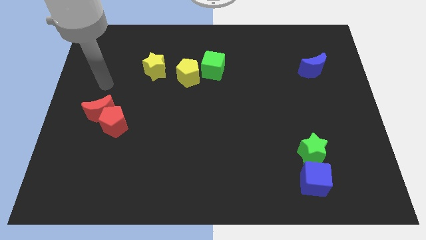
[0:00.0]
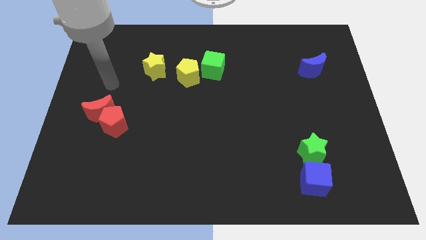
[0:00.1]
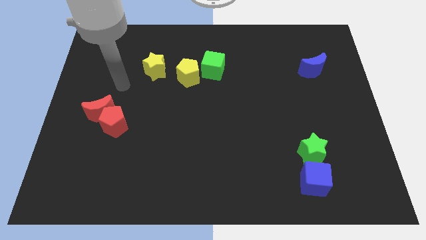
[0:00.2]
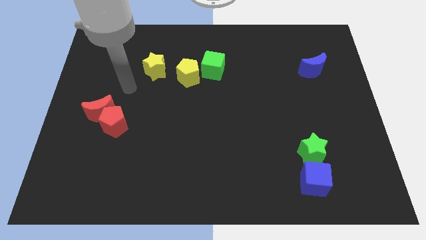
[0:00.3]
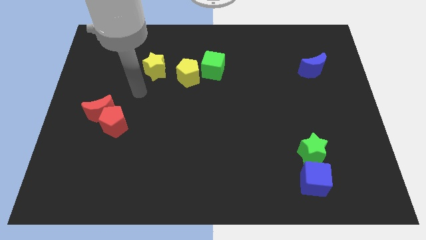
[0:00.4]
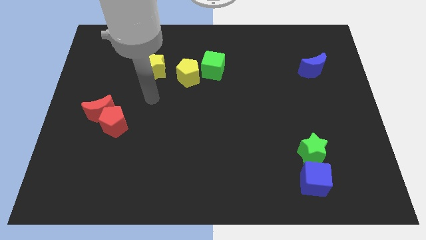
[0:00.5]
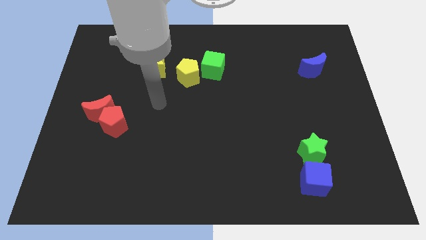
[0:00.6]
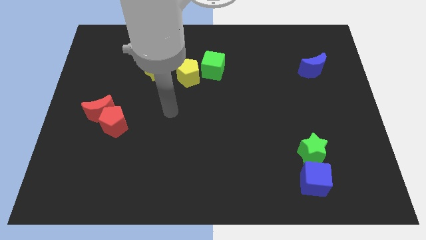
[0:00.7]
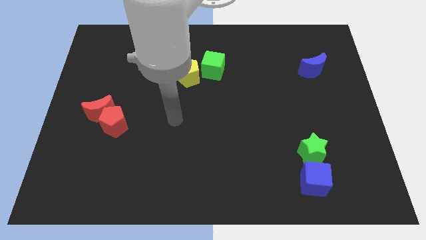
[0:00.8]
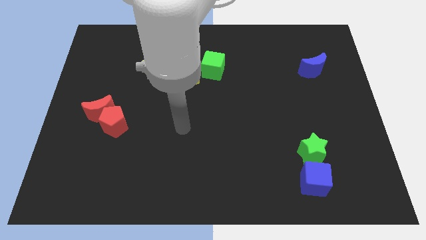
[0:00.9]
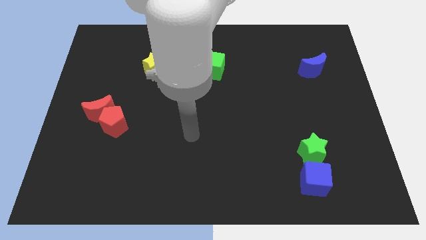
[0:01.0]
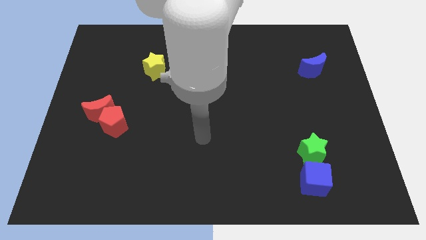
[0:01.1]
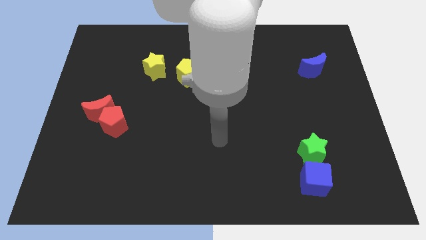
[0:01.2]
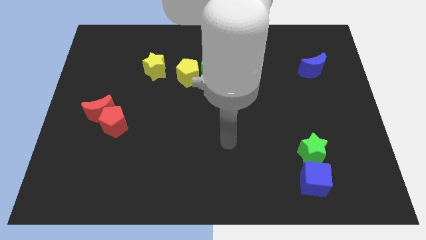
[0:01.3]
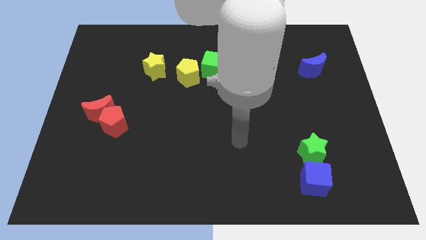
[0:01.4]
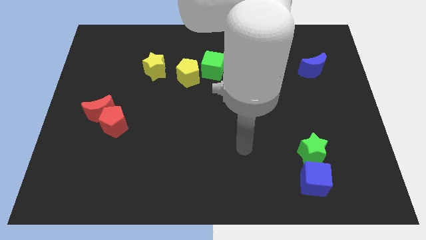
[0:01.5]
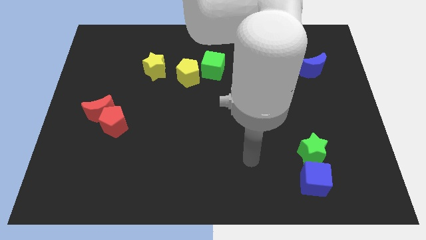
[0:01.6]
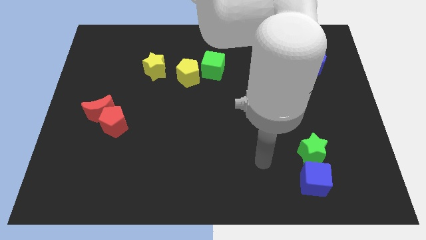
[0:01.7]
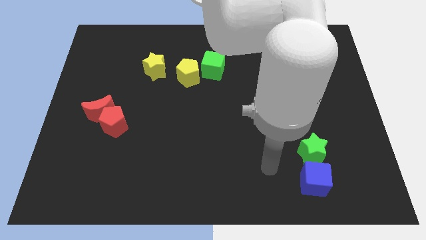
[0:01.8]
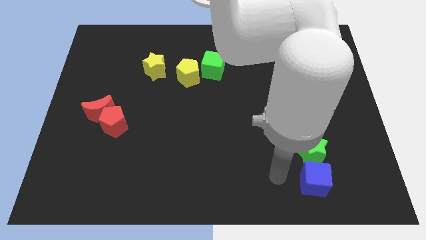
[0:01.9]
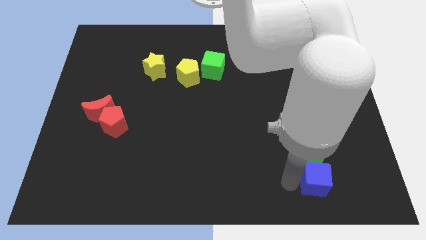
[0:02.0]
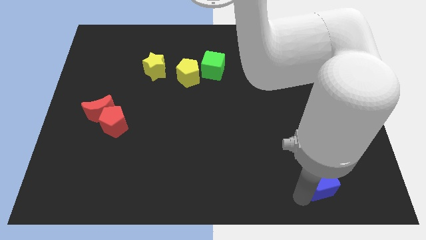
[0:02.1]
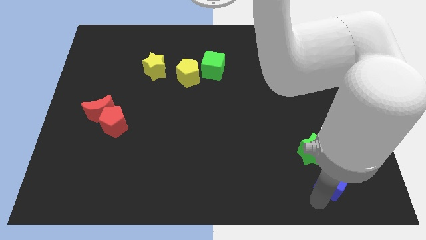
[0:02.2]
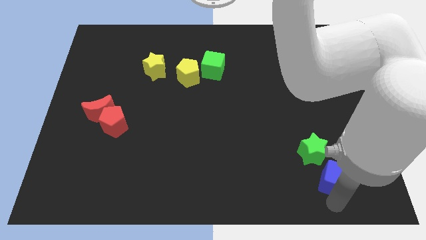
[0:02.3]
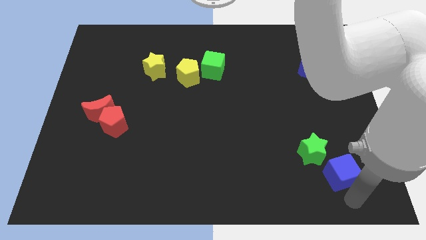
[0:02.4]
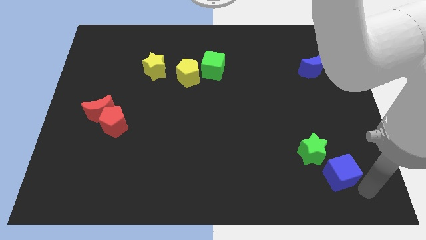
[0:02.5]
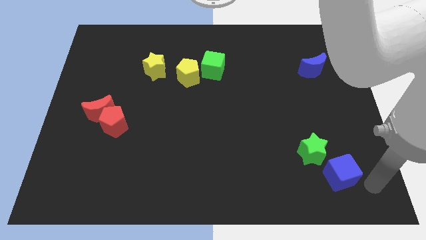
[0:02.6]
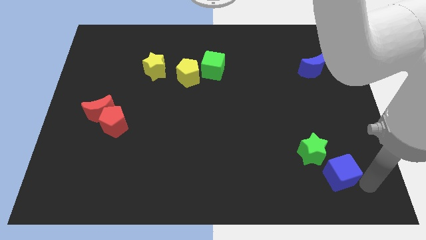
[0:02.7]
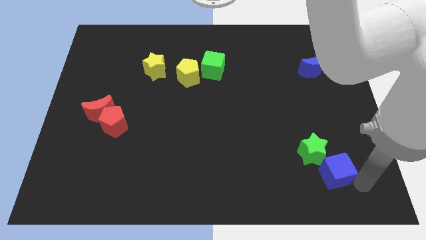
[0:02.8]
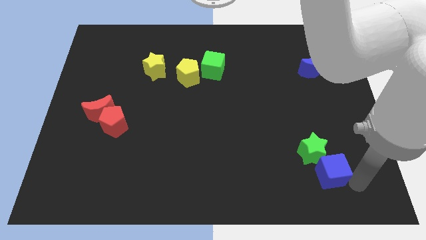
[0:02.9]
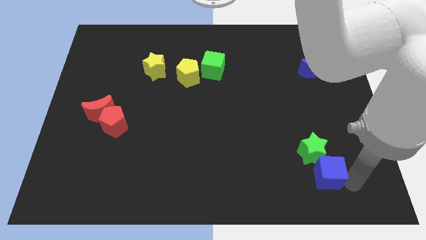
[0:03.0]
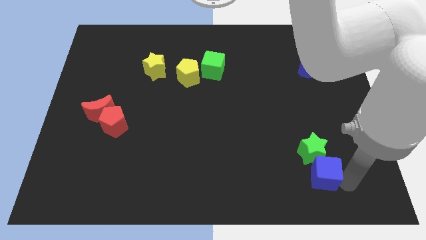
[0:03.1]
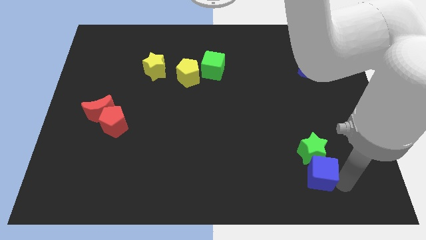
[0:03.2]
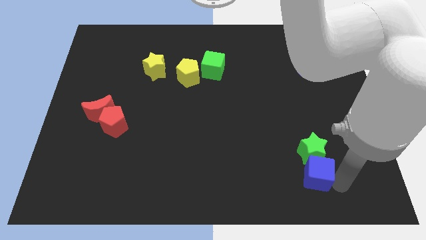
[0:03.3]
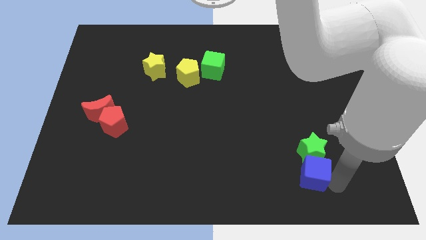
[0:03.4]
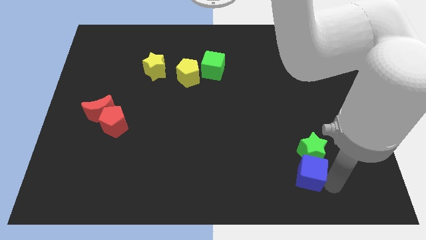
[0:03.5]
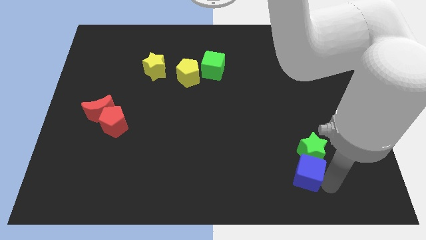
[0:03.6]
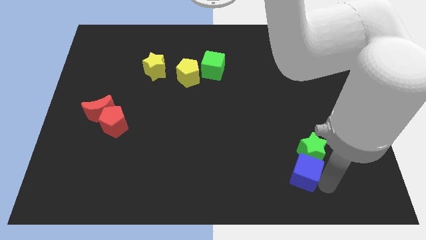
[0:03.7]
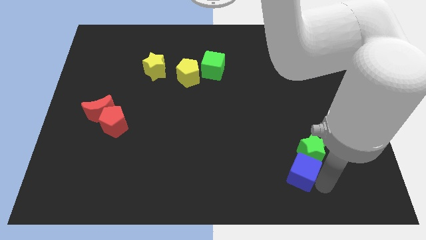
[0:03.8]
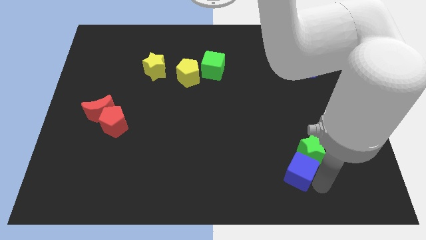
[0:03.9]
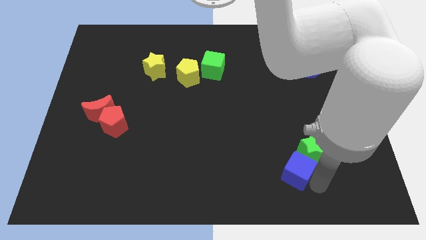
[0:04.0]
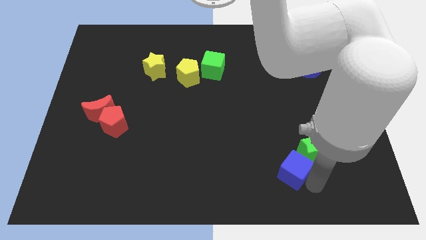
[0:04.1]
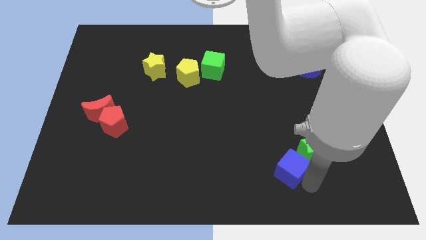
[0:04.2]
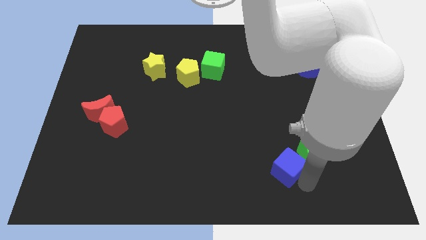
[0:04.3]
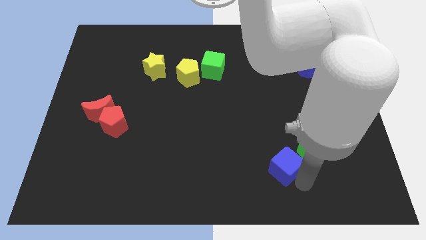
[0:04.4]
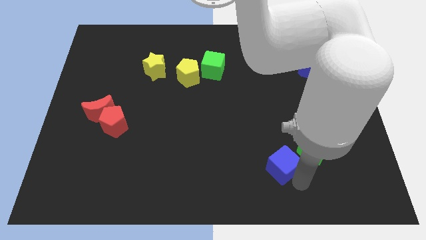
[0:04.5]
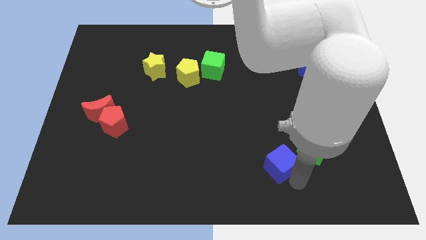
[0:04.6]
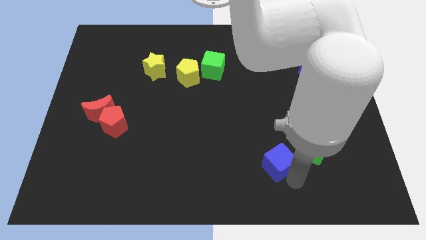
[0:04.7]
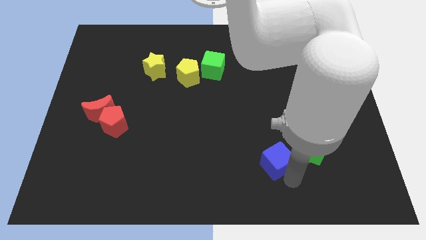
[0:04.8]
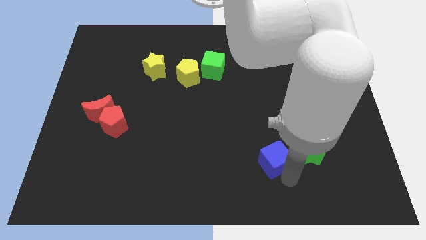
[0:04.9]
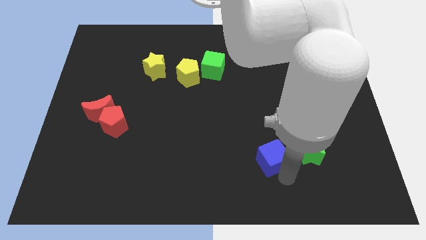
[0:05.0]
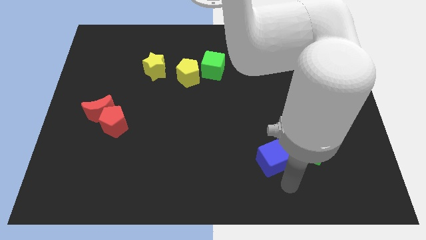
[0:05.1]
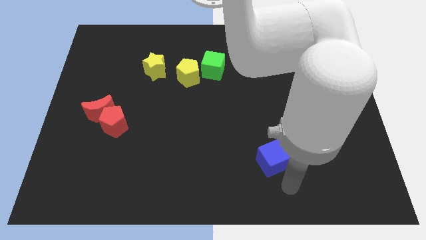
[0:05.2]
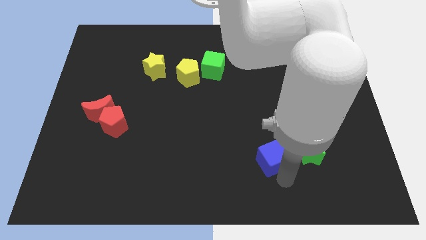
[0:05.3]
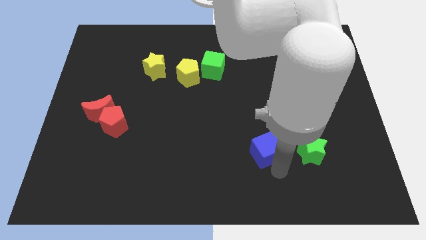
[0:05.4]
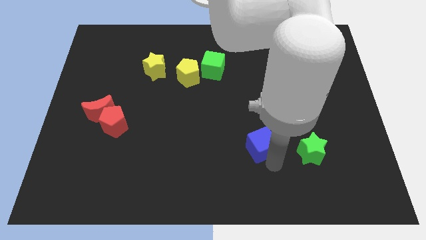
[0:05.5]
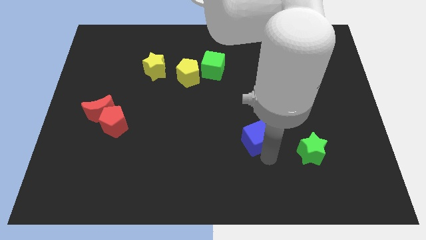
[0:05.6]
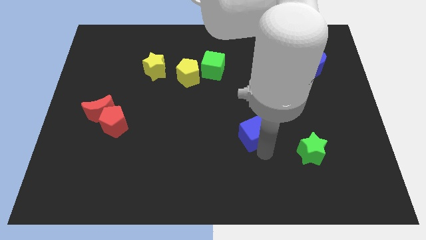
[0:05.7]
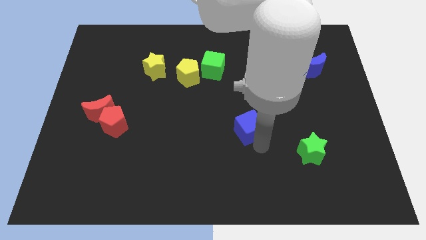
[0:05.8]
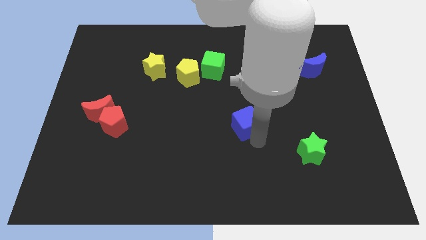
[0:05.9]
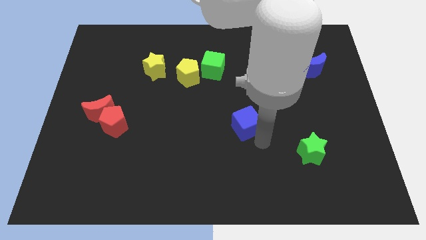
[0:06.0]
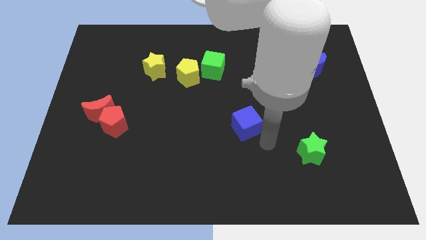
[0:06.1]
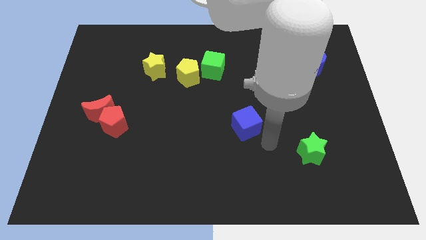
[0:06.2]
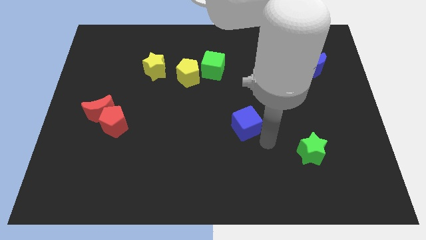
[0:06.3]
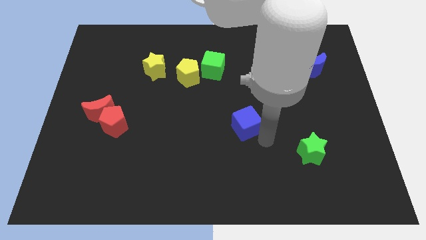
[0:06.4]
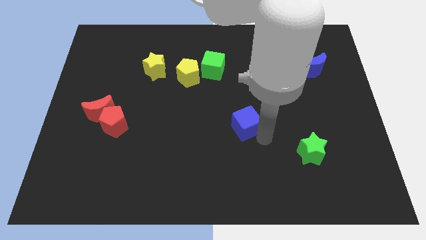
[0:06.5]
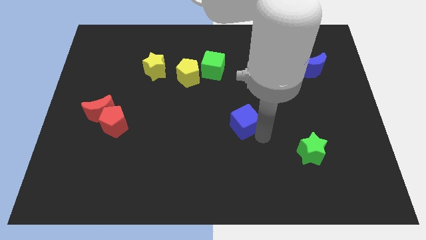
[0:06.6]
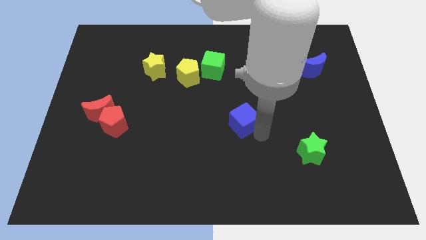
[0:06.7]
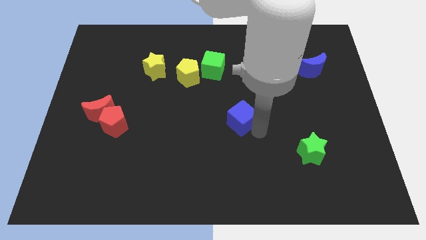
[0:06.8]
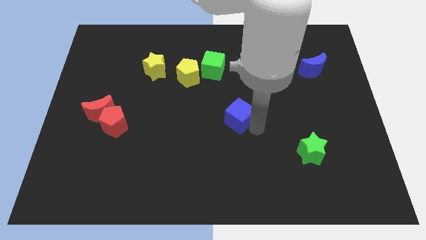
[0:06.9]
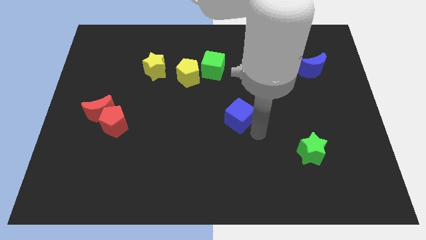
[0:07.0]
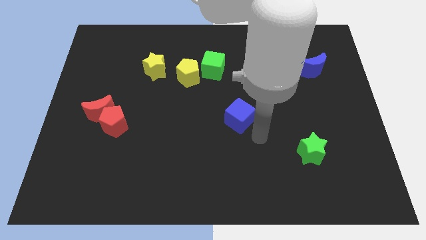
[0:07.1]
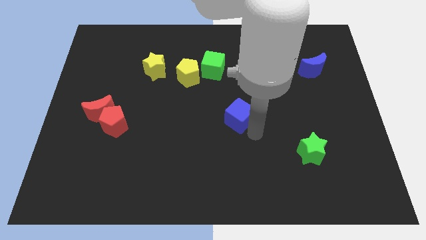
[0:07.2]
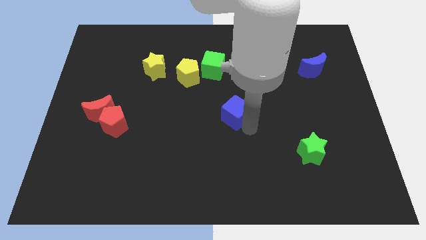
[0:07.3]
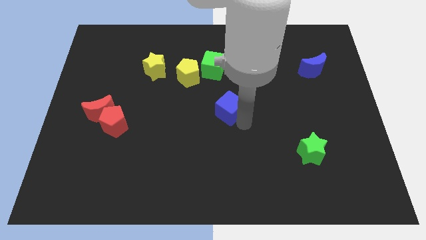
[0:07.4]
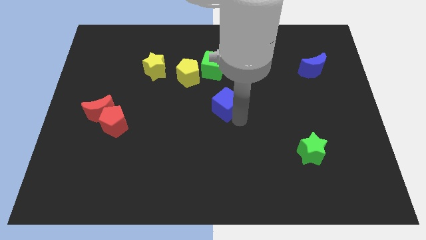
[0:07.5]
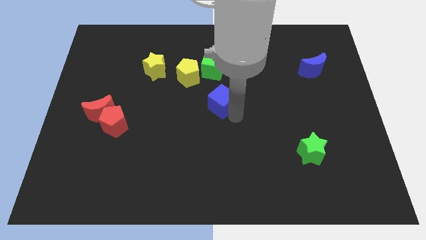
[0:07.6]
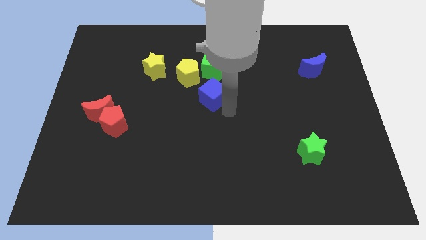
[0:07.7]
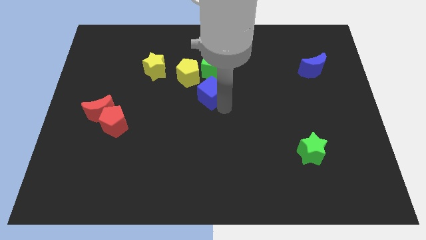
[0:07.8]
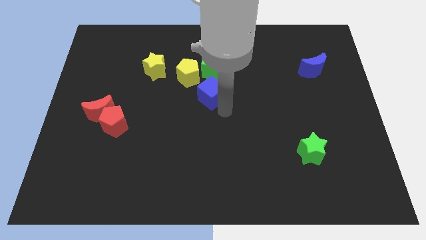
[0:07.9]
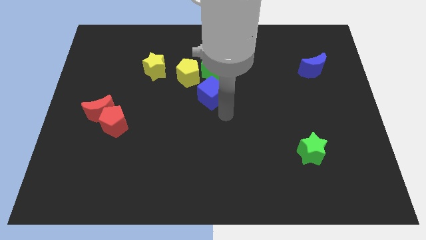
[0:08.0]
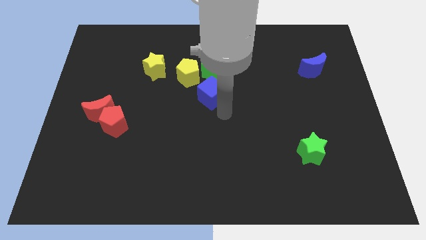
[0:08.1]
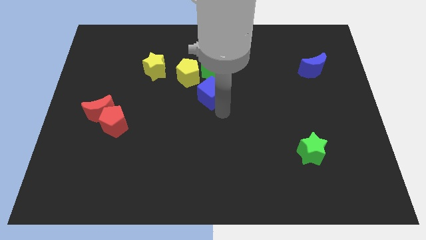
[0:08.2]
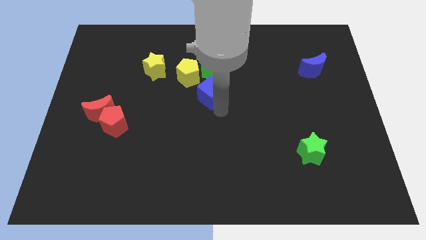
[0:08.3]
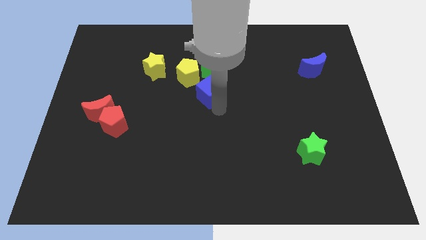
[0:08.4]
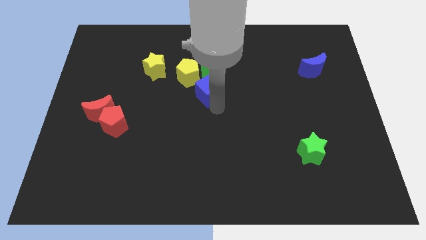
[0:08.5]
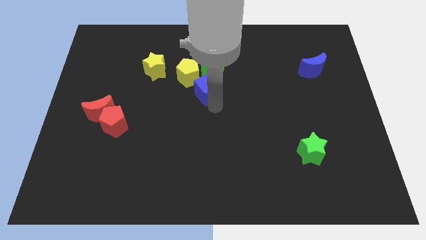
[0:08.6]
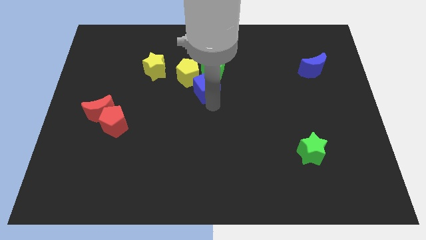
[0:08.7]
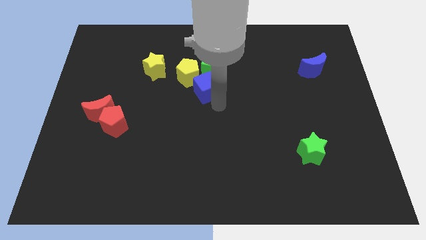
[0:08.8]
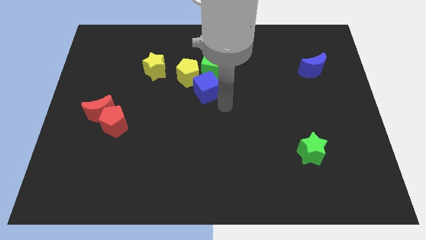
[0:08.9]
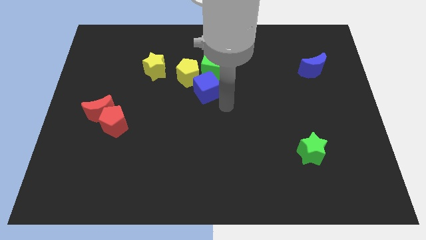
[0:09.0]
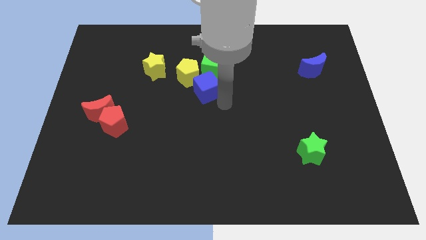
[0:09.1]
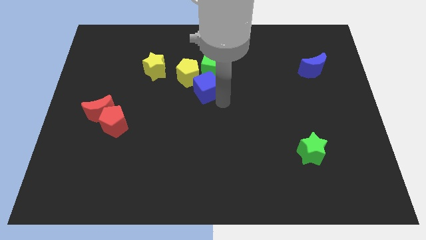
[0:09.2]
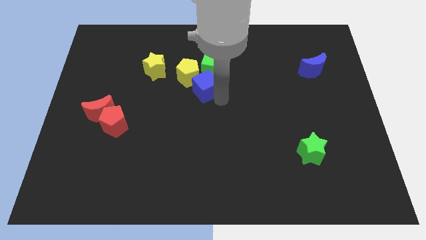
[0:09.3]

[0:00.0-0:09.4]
put the blue cube towards the yellow pentagon
